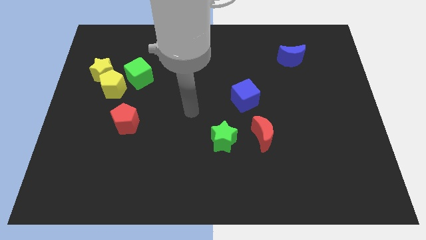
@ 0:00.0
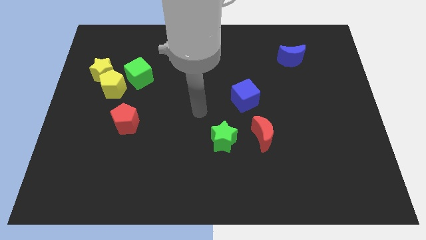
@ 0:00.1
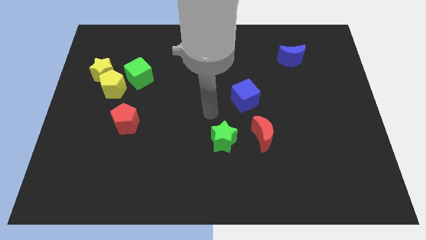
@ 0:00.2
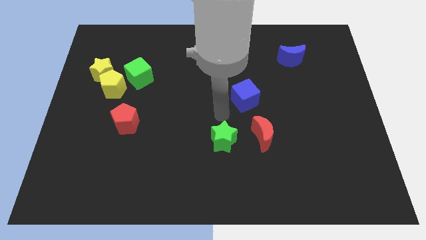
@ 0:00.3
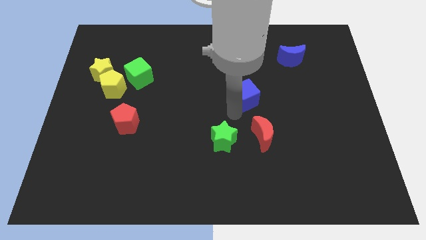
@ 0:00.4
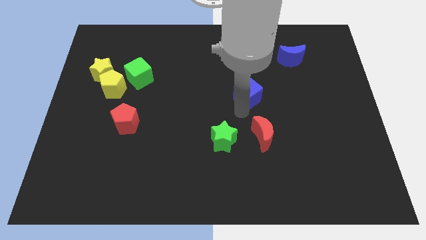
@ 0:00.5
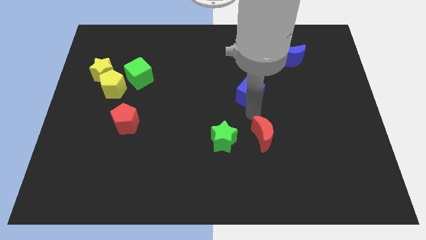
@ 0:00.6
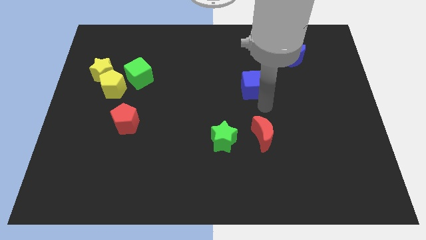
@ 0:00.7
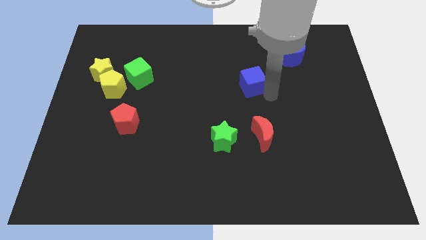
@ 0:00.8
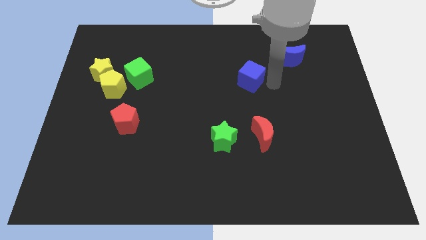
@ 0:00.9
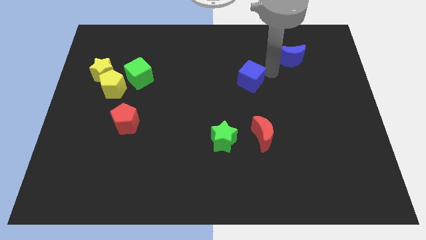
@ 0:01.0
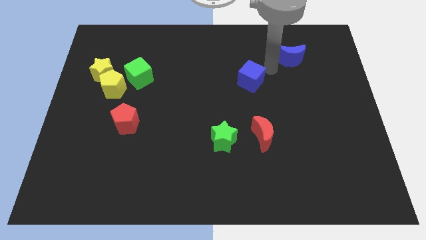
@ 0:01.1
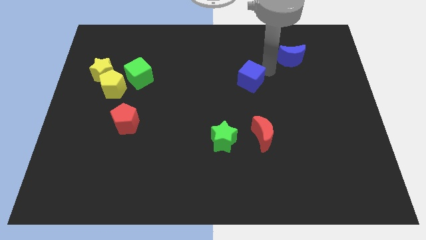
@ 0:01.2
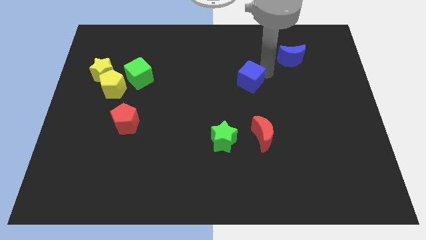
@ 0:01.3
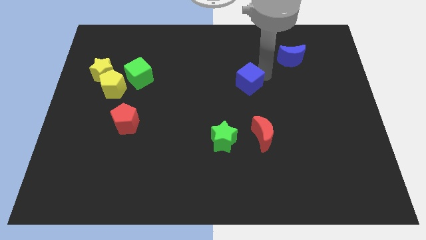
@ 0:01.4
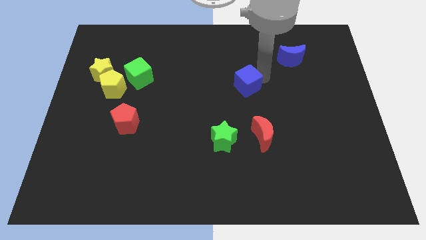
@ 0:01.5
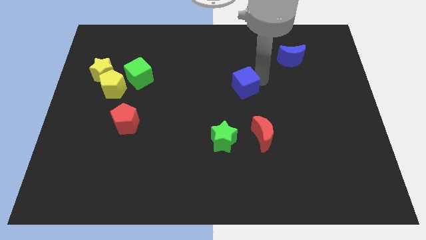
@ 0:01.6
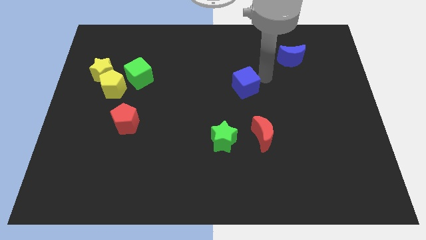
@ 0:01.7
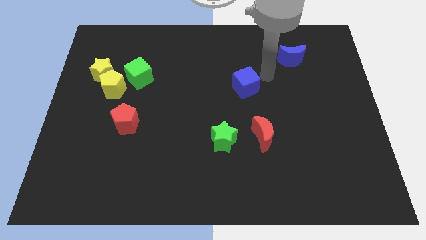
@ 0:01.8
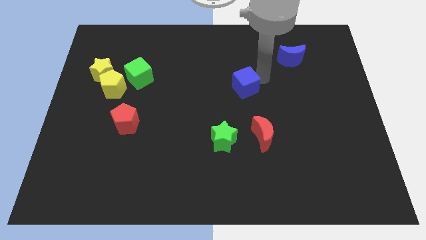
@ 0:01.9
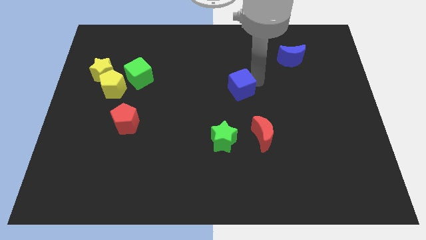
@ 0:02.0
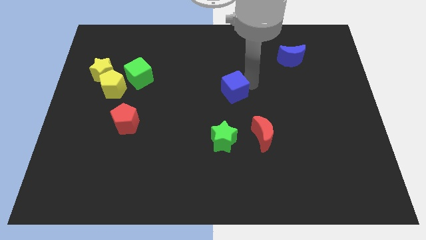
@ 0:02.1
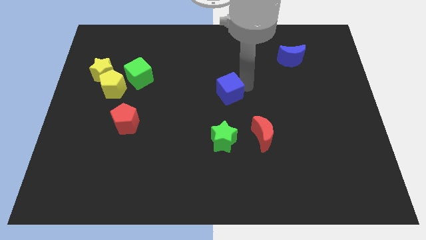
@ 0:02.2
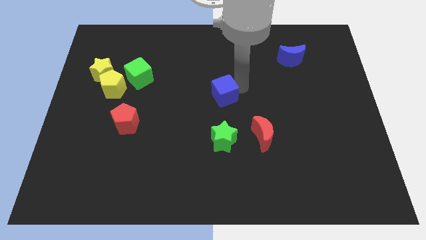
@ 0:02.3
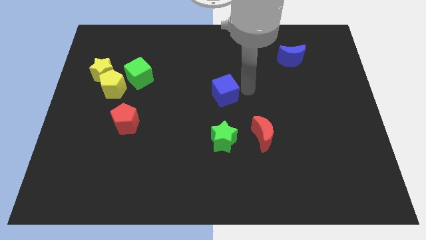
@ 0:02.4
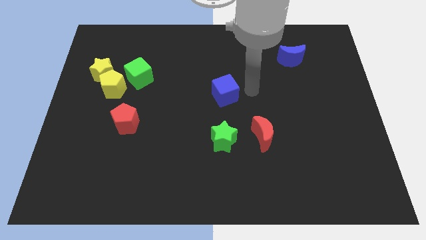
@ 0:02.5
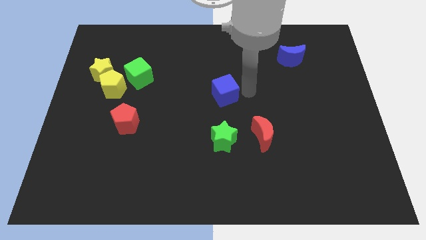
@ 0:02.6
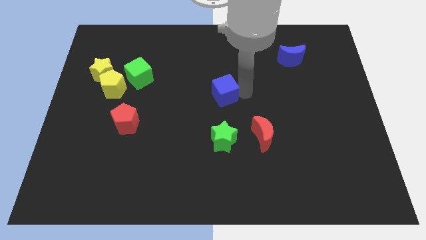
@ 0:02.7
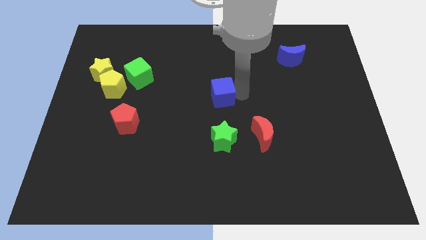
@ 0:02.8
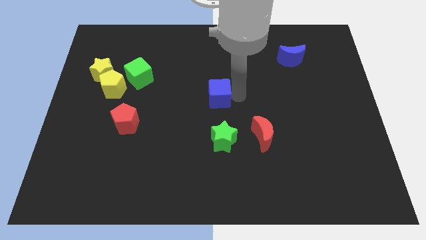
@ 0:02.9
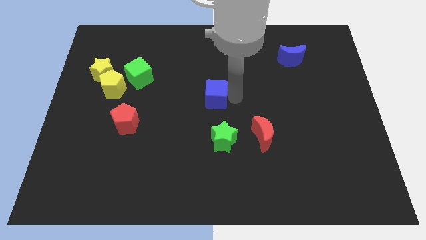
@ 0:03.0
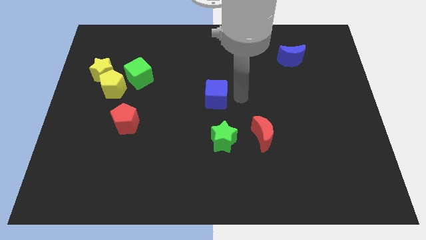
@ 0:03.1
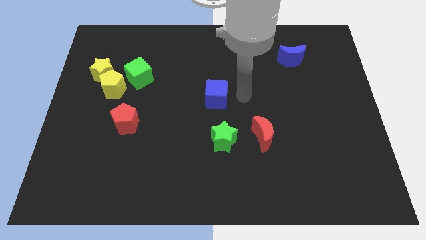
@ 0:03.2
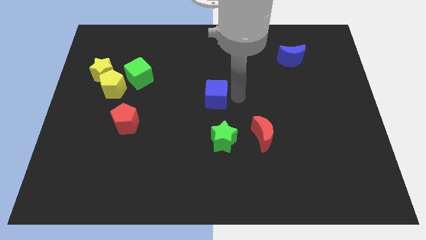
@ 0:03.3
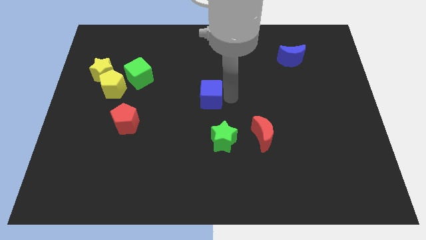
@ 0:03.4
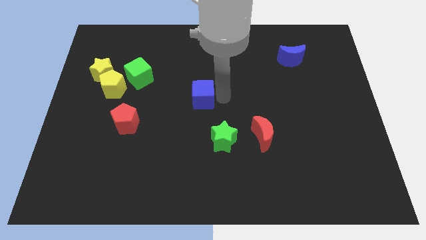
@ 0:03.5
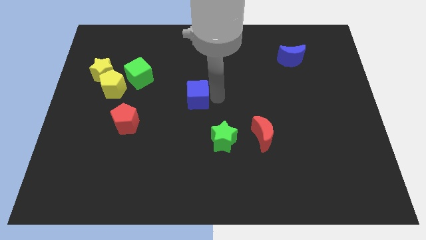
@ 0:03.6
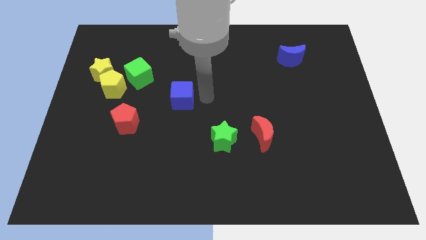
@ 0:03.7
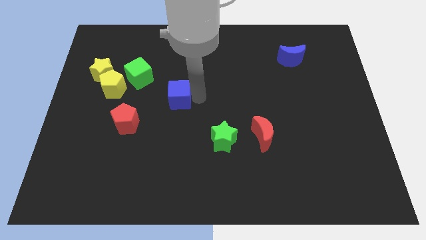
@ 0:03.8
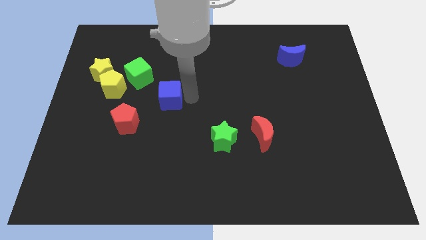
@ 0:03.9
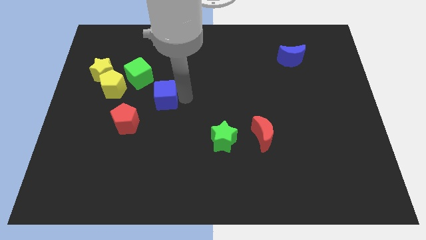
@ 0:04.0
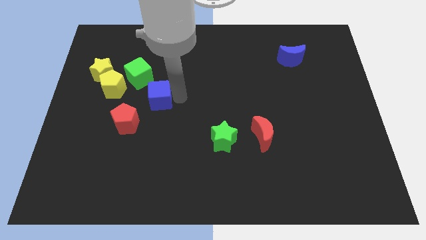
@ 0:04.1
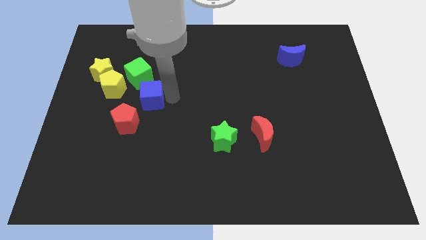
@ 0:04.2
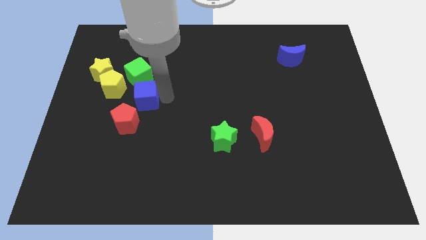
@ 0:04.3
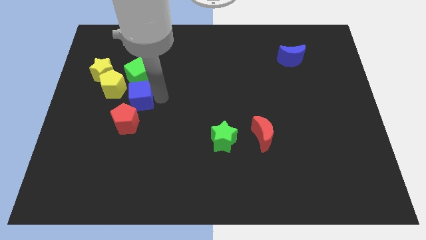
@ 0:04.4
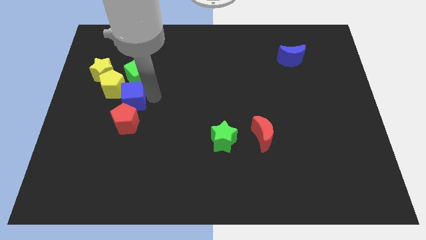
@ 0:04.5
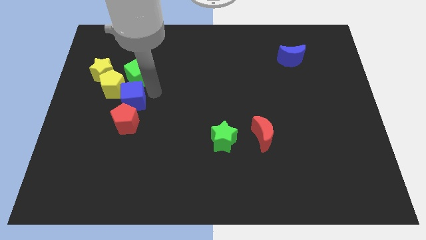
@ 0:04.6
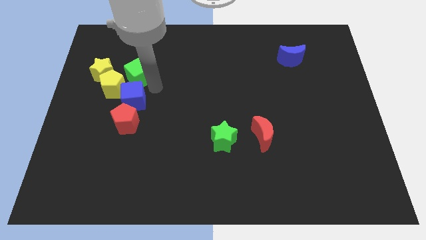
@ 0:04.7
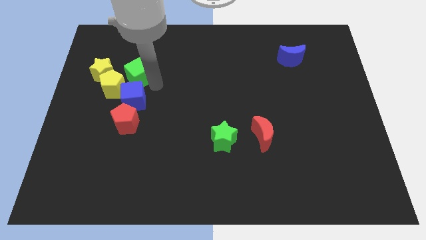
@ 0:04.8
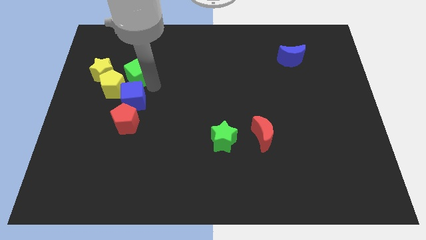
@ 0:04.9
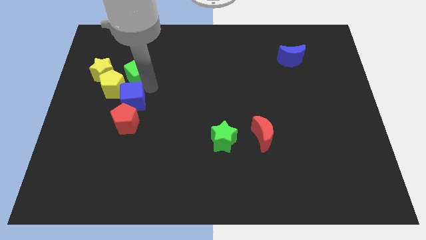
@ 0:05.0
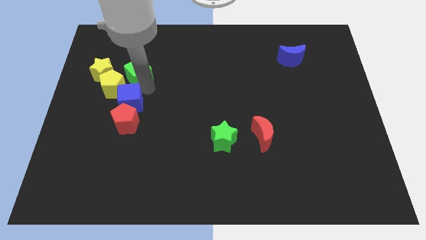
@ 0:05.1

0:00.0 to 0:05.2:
slide the blue cube to the bottom side of the yellow pentagon

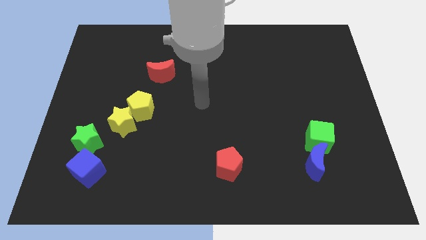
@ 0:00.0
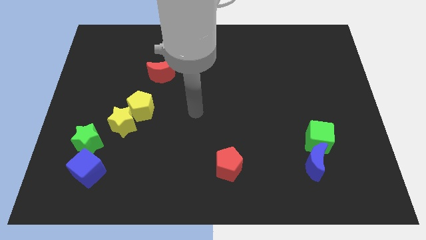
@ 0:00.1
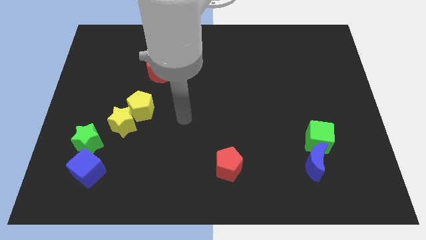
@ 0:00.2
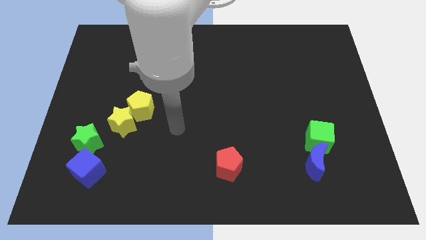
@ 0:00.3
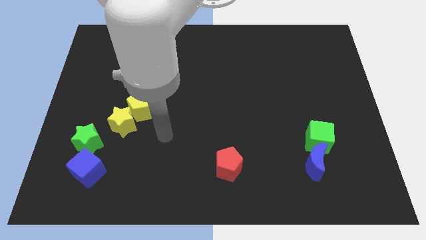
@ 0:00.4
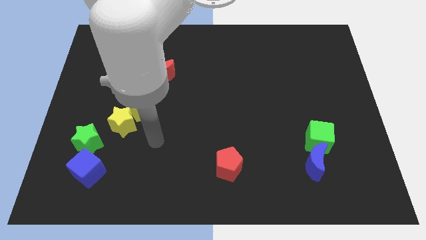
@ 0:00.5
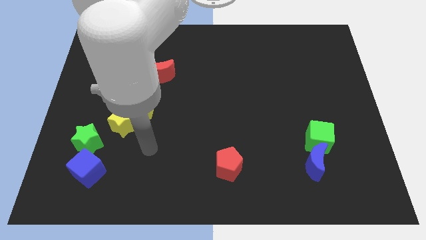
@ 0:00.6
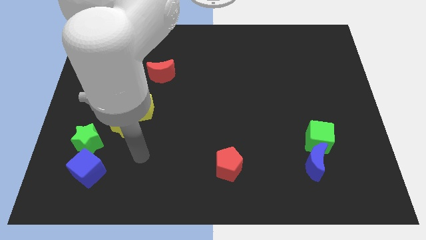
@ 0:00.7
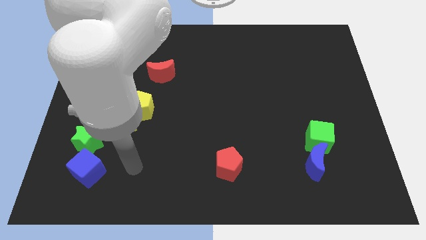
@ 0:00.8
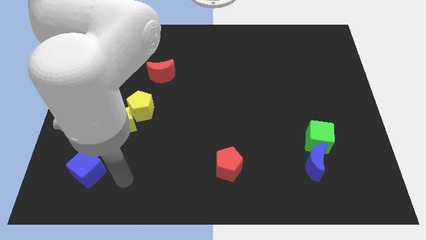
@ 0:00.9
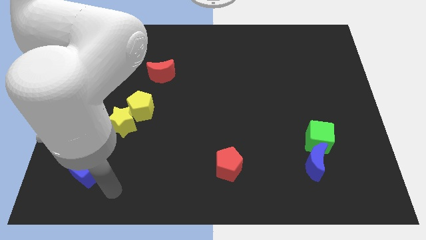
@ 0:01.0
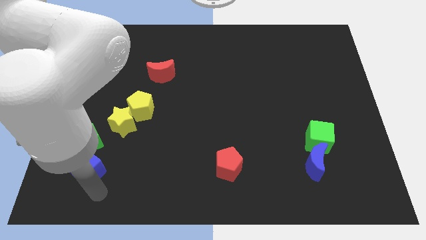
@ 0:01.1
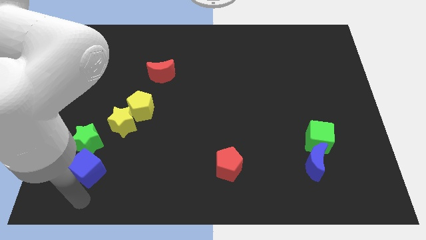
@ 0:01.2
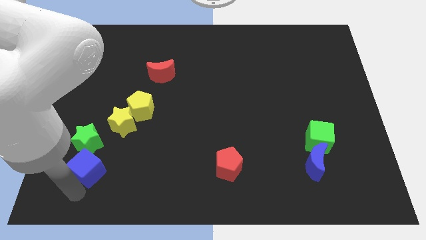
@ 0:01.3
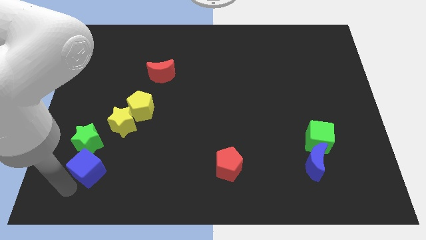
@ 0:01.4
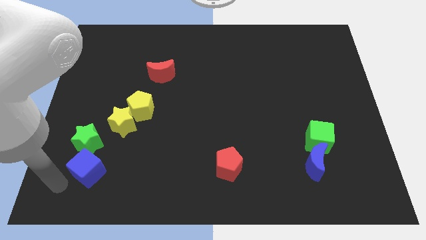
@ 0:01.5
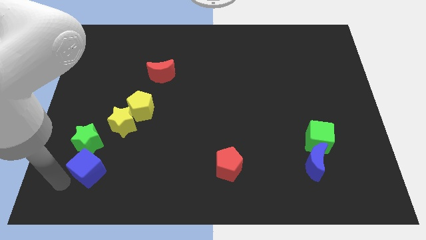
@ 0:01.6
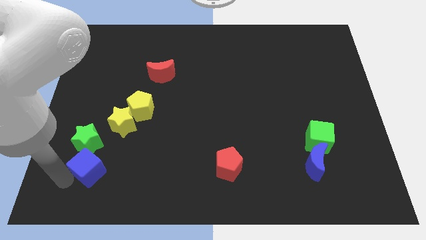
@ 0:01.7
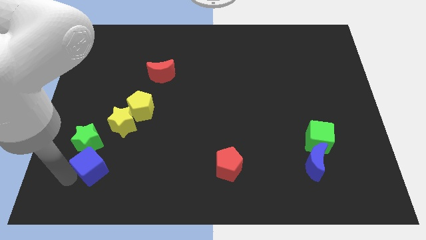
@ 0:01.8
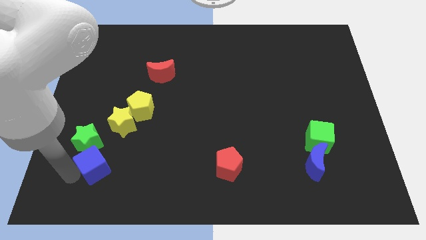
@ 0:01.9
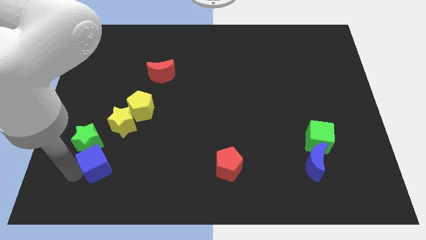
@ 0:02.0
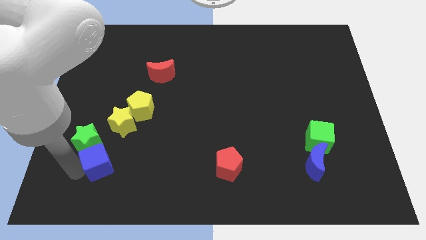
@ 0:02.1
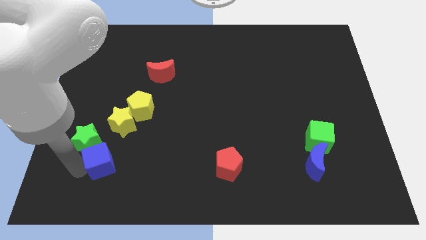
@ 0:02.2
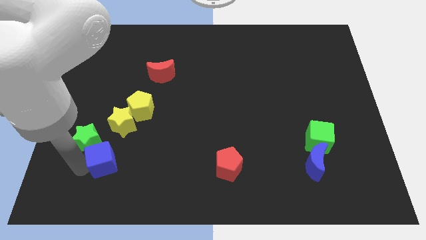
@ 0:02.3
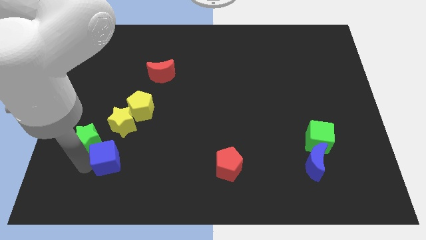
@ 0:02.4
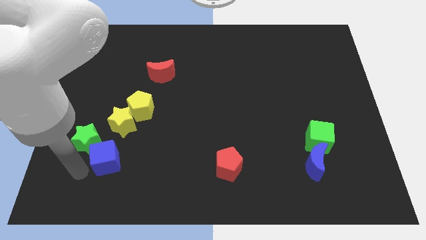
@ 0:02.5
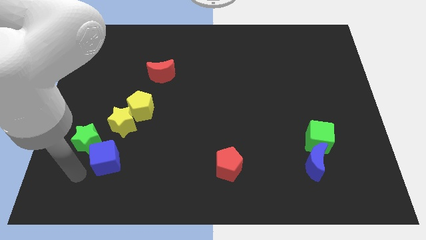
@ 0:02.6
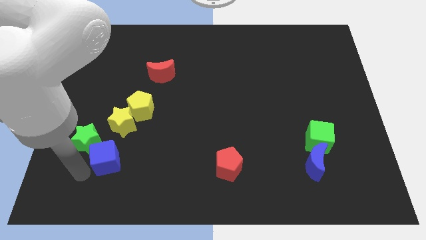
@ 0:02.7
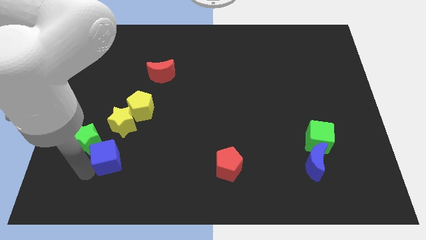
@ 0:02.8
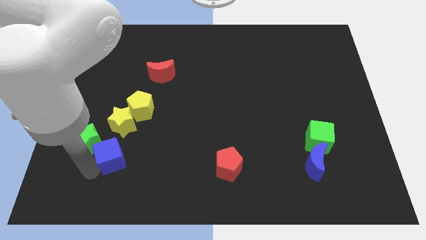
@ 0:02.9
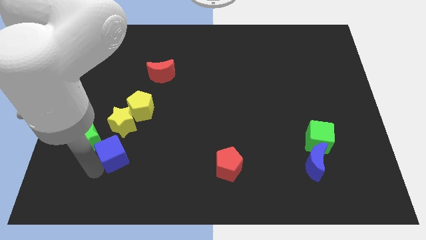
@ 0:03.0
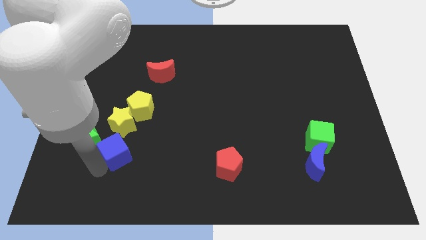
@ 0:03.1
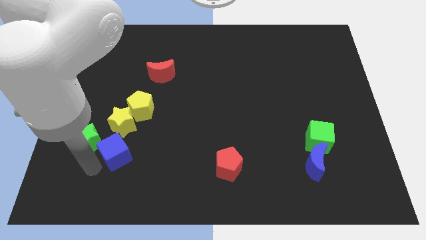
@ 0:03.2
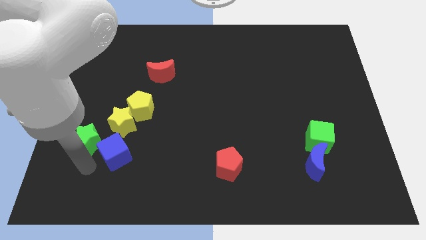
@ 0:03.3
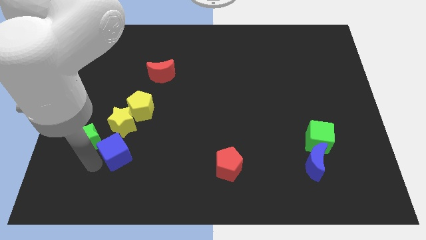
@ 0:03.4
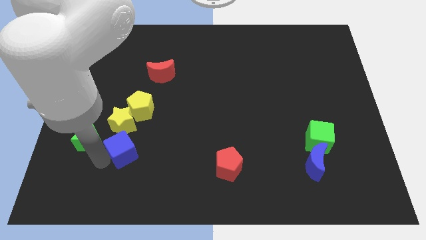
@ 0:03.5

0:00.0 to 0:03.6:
move the blue cube diagonally down and to the right of the yellow star
